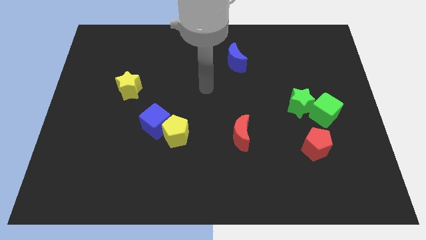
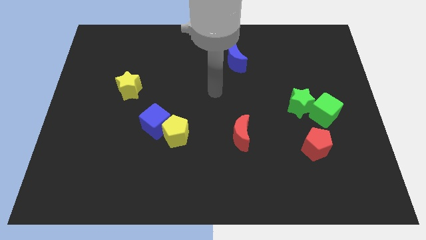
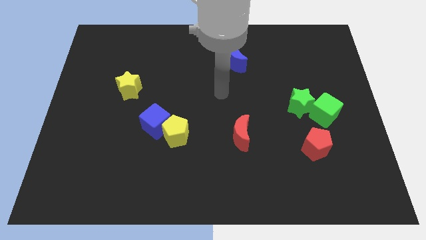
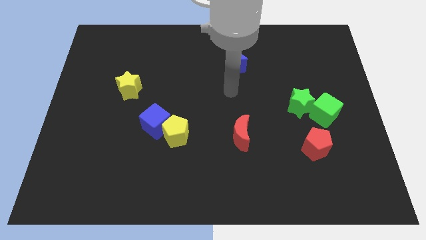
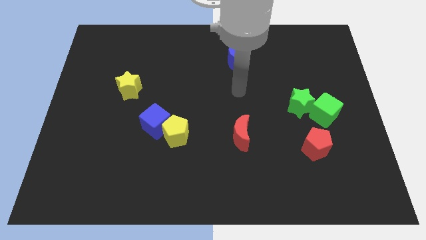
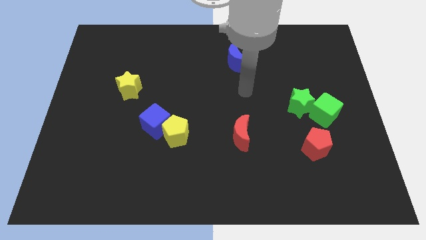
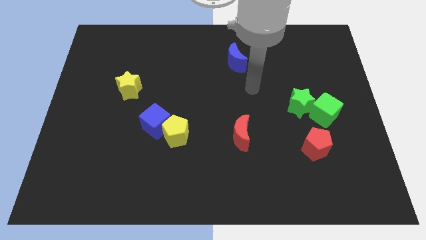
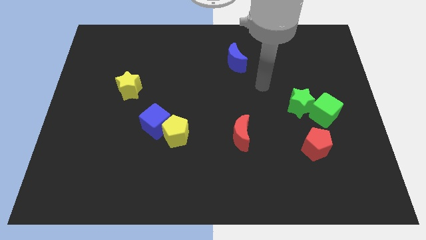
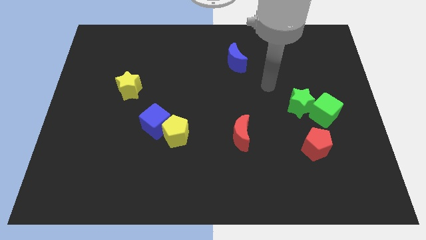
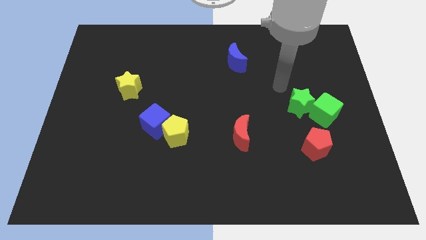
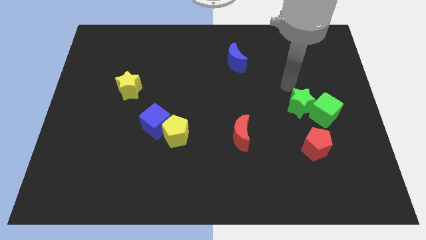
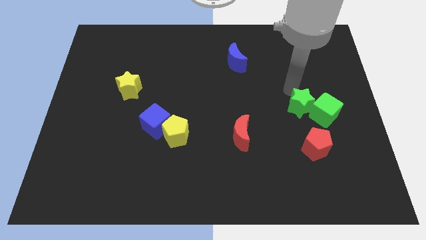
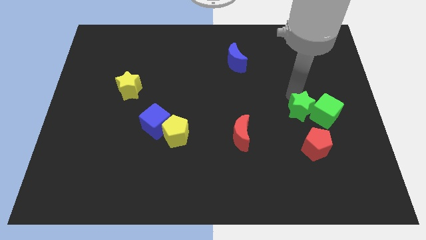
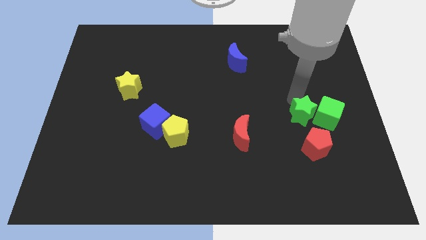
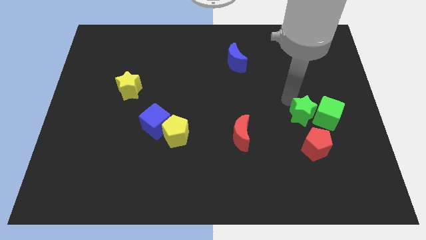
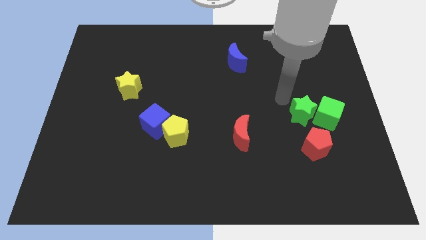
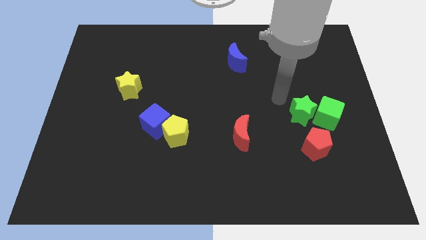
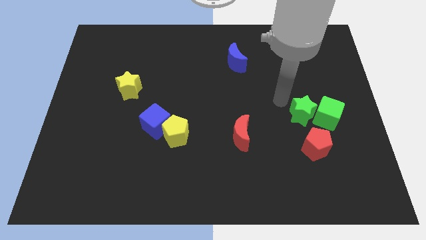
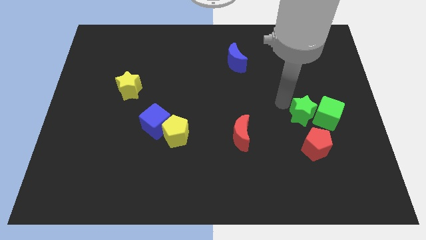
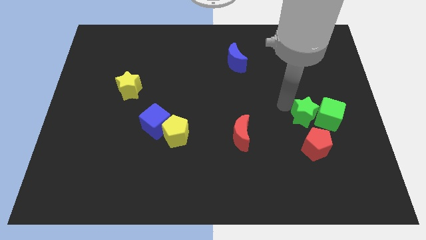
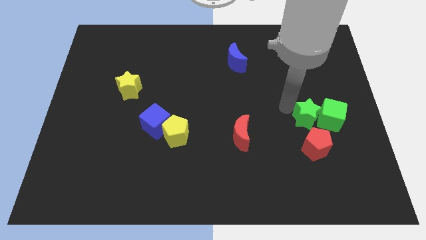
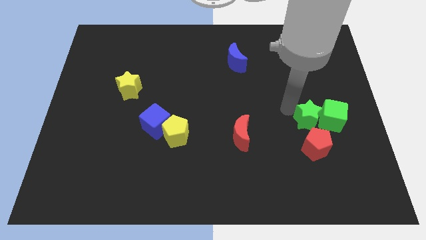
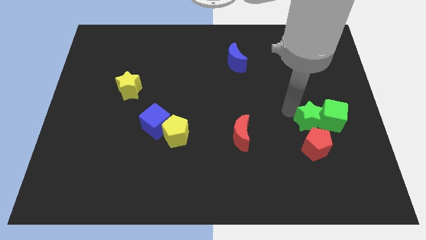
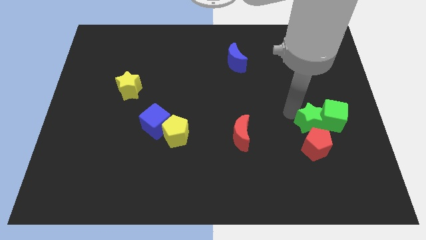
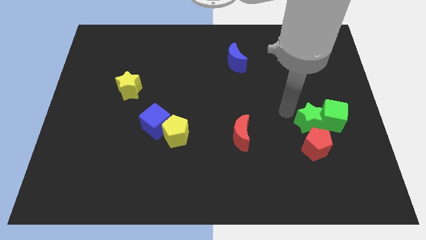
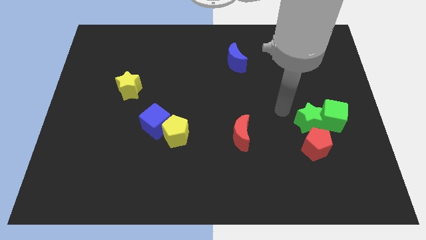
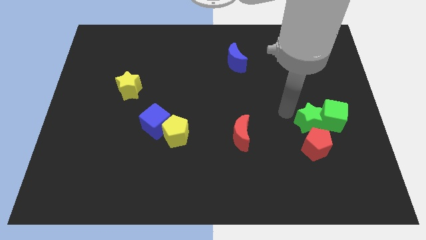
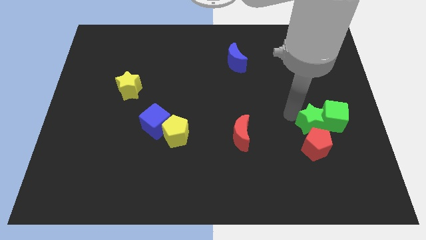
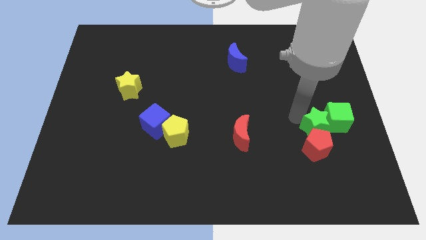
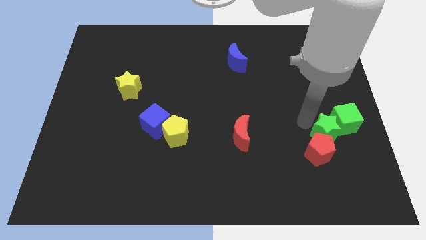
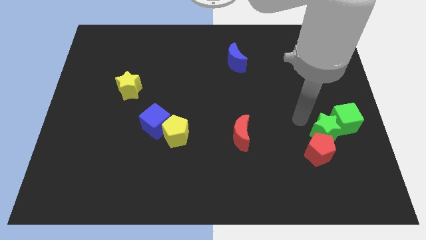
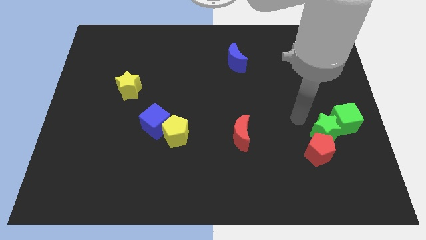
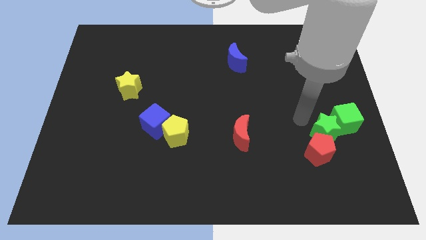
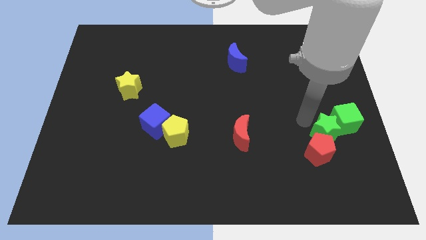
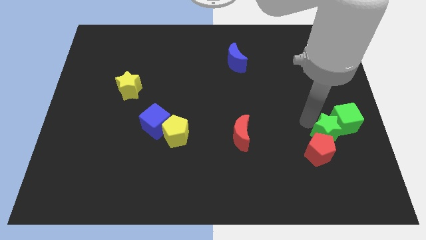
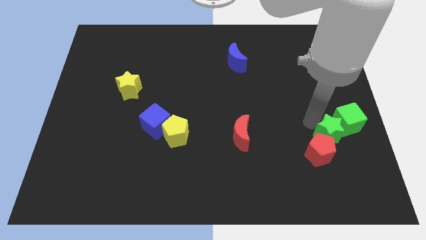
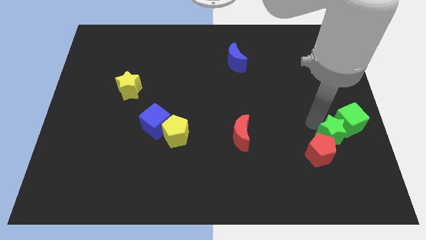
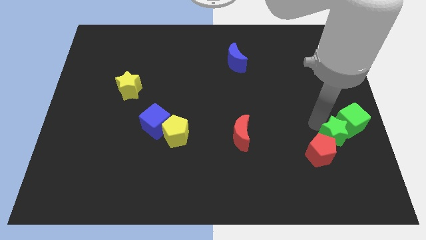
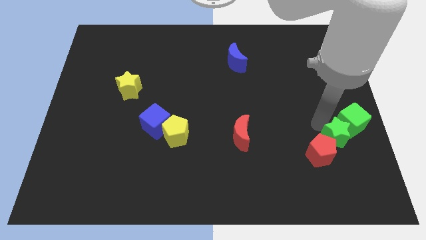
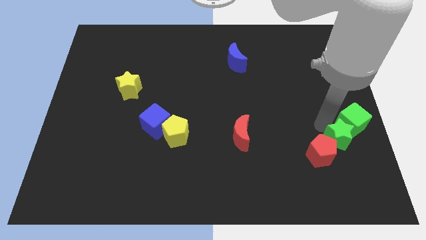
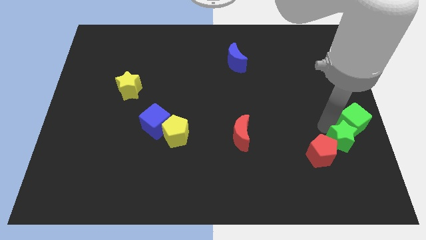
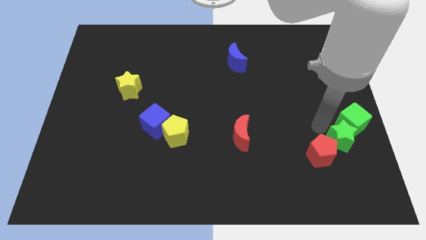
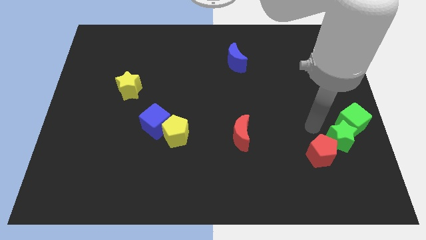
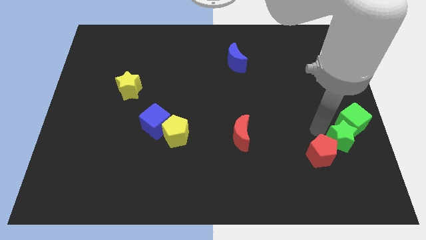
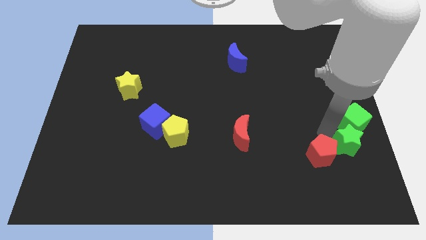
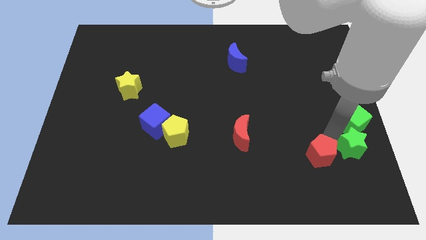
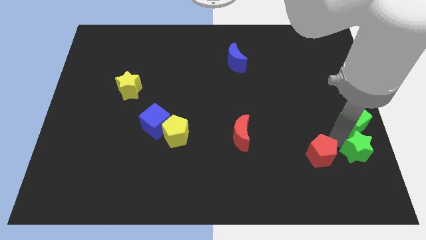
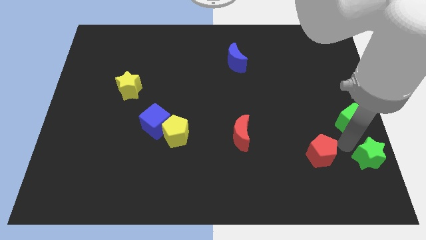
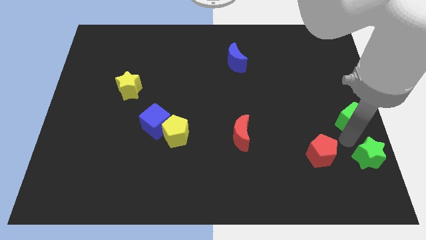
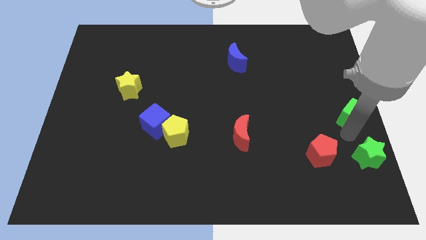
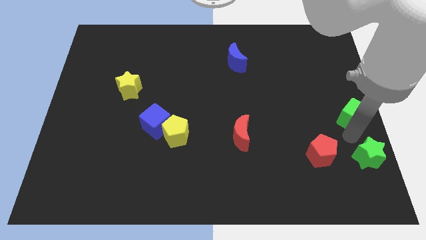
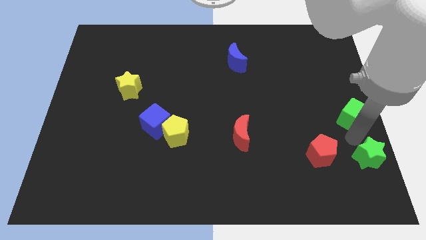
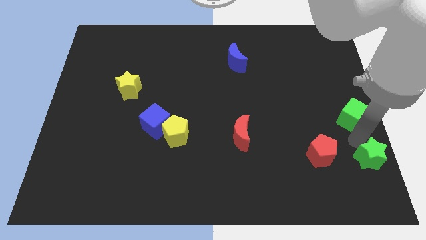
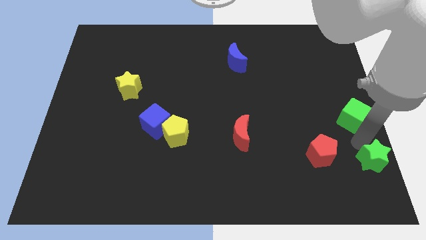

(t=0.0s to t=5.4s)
put the green star to the bottom right corner

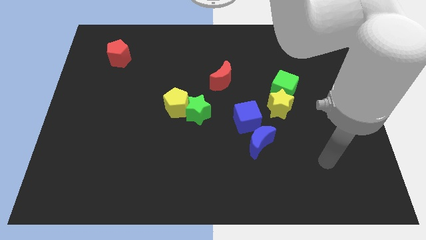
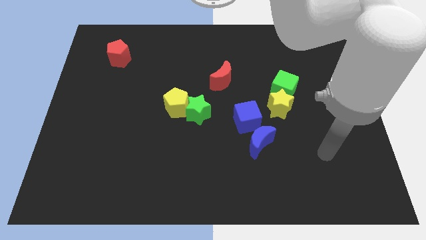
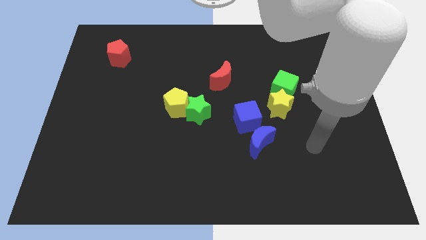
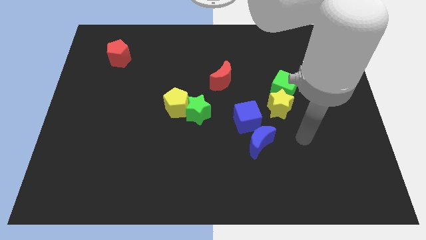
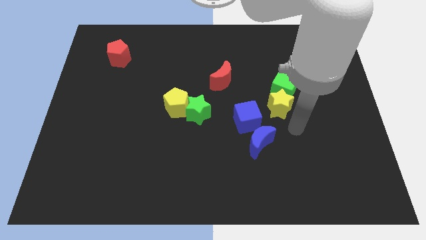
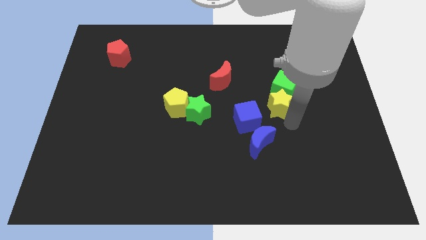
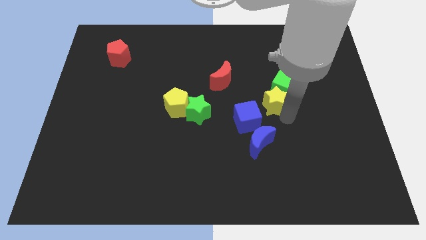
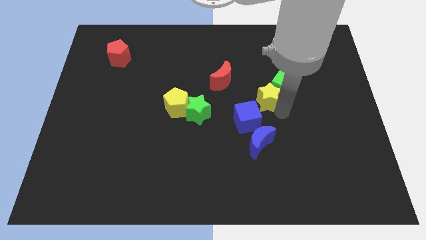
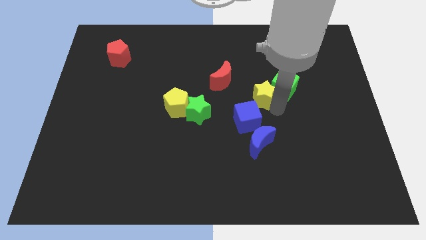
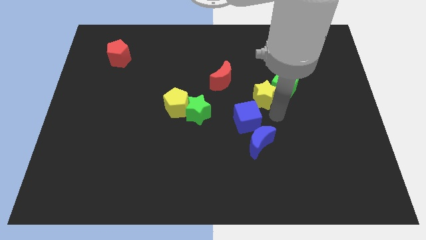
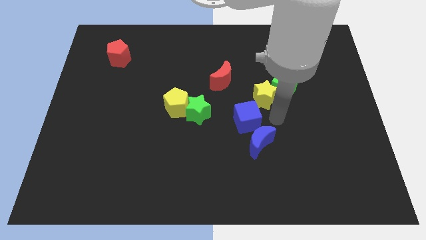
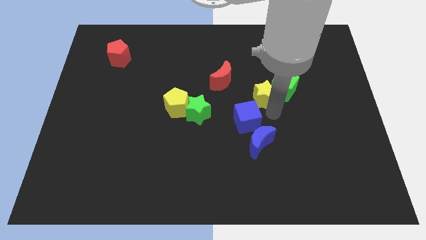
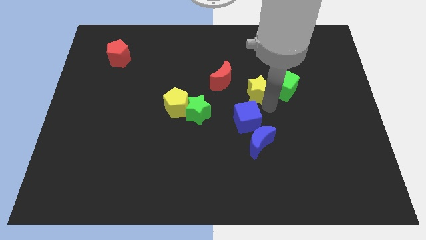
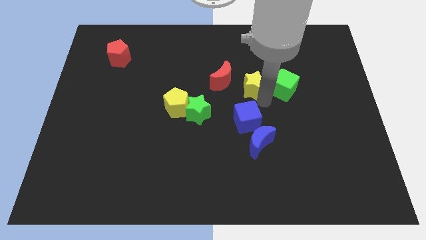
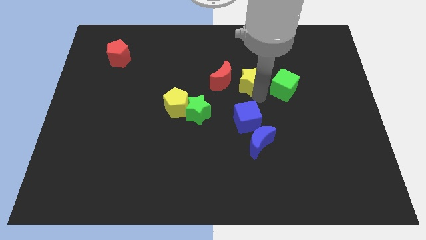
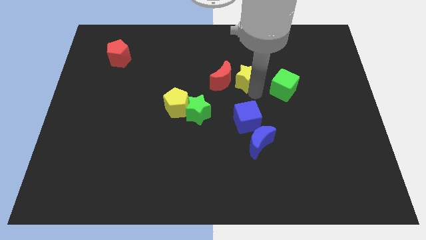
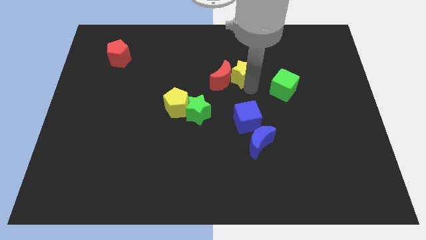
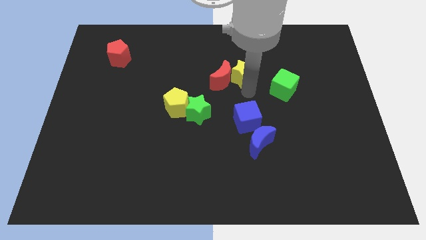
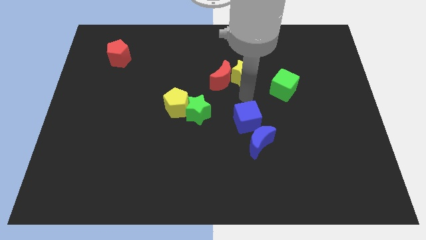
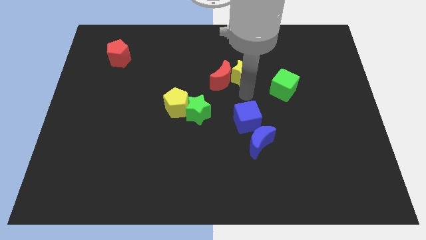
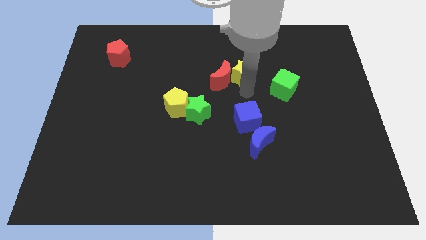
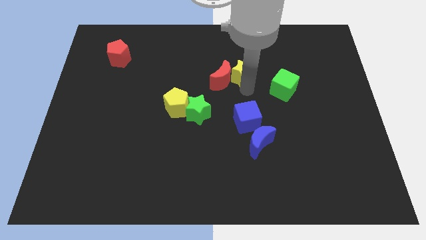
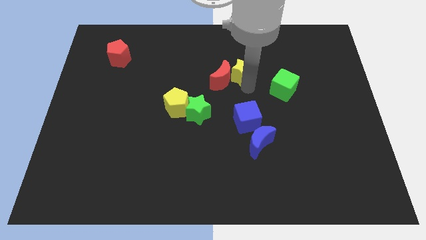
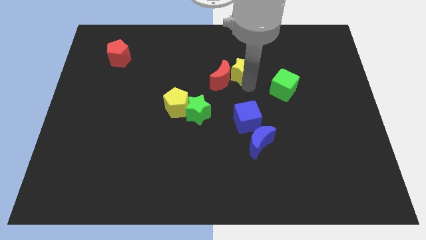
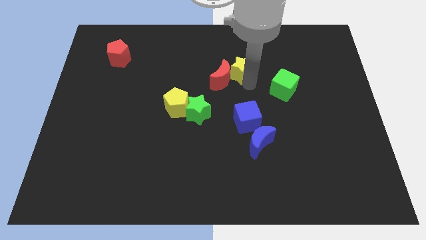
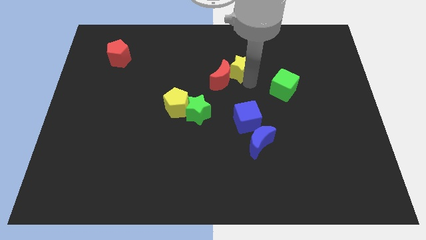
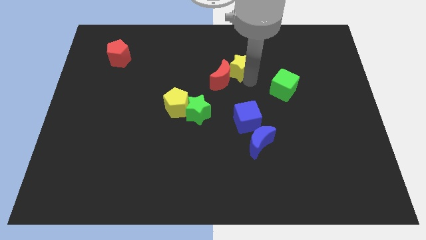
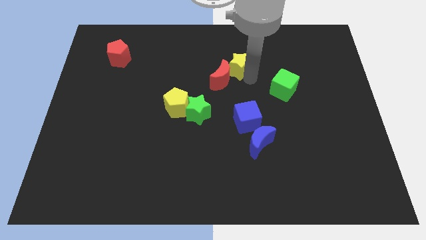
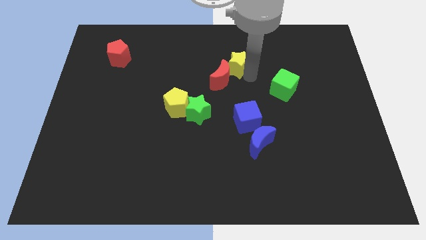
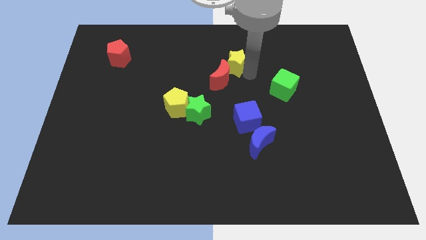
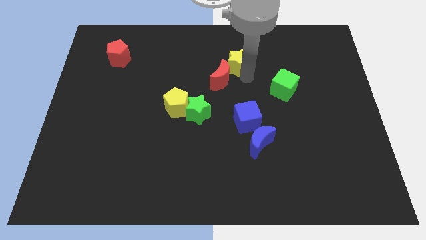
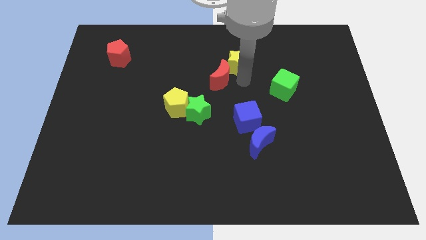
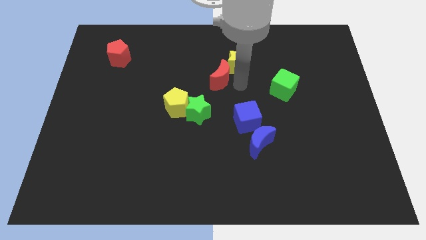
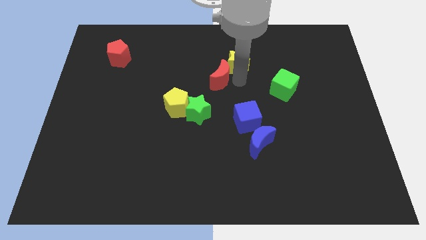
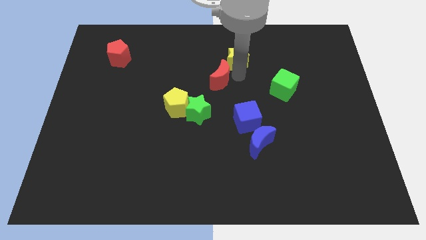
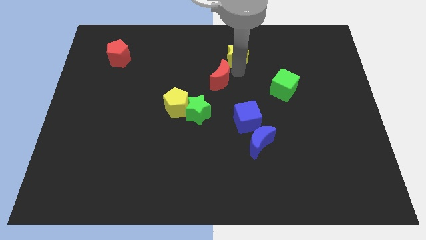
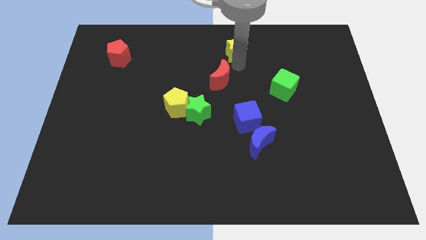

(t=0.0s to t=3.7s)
put the yellow star to the top side
